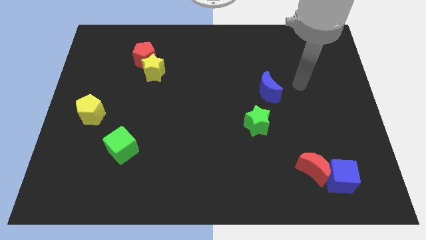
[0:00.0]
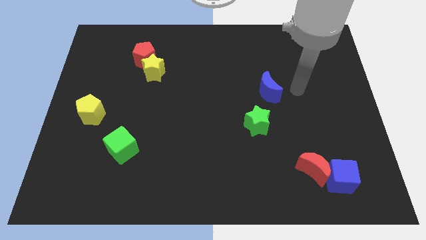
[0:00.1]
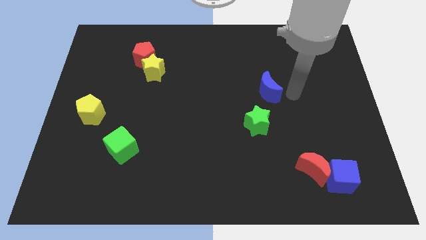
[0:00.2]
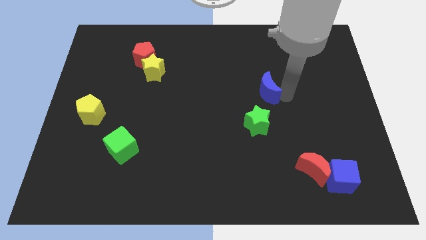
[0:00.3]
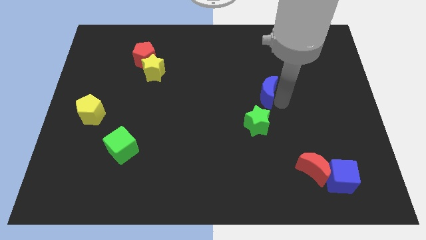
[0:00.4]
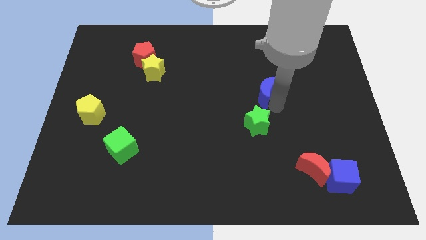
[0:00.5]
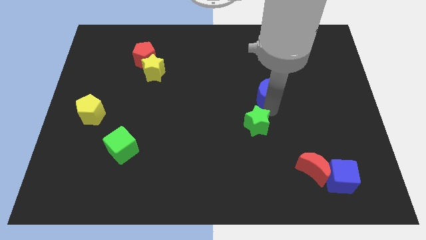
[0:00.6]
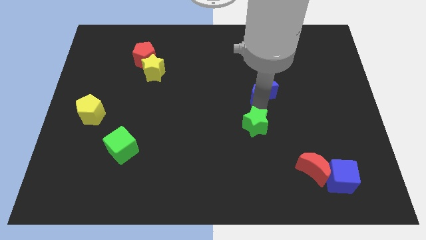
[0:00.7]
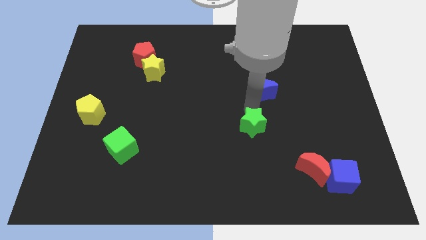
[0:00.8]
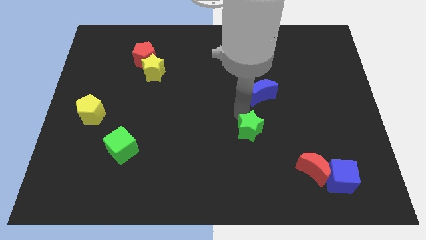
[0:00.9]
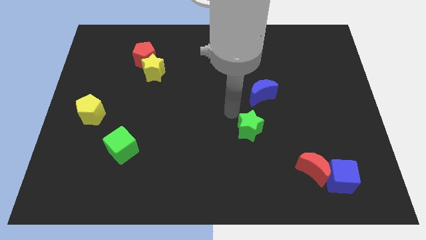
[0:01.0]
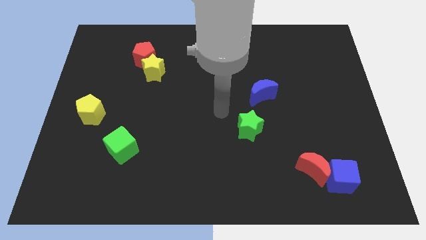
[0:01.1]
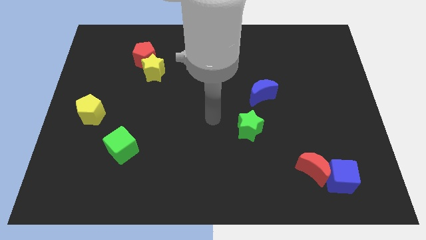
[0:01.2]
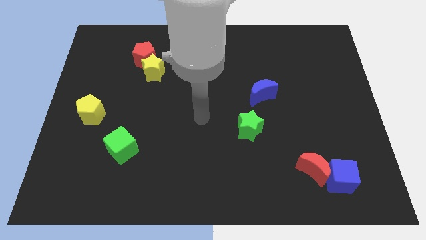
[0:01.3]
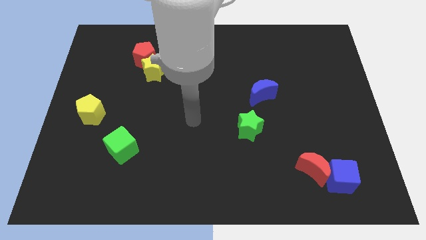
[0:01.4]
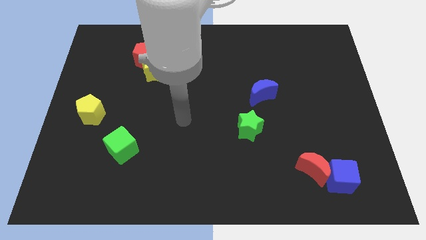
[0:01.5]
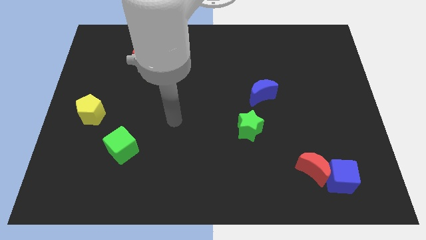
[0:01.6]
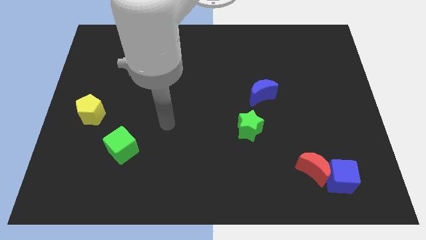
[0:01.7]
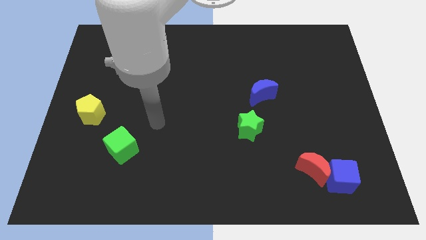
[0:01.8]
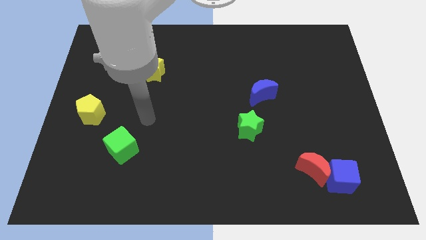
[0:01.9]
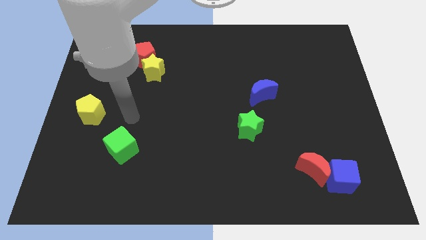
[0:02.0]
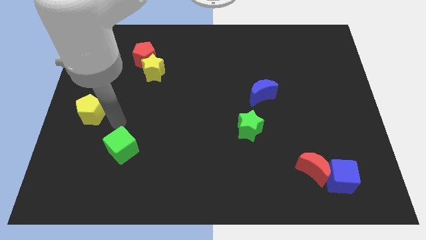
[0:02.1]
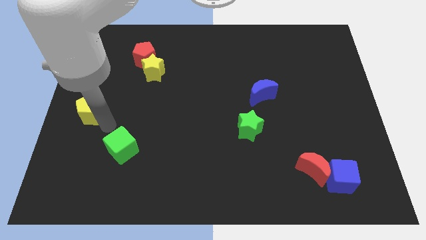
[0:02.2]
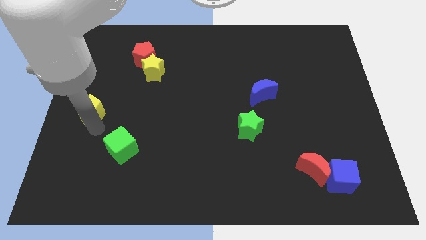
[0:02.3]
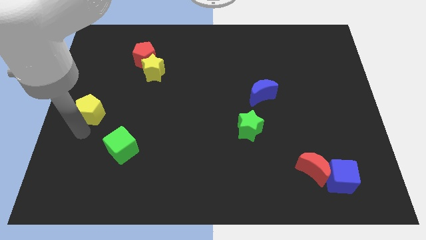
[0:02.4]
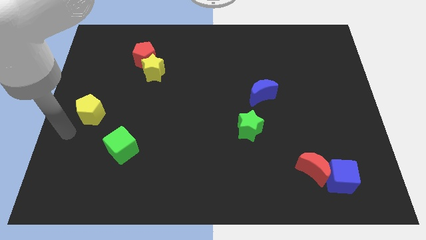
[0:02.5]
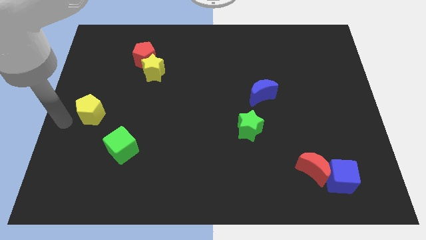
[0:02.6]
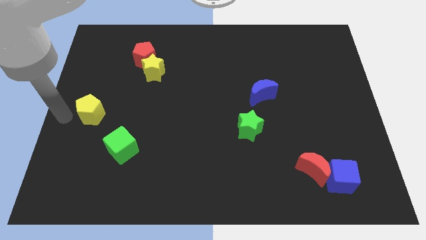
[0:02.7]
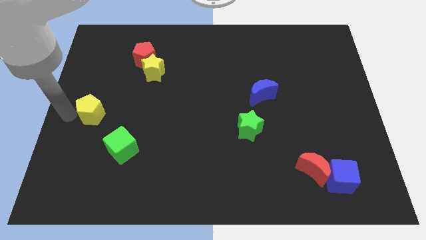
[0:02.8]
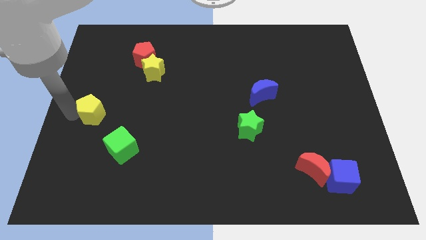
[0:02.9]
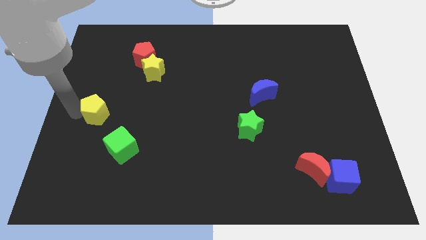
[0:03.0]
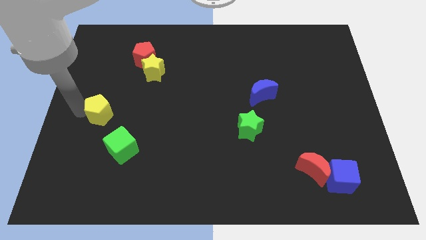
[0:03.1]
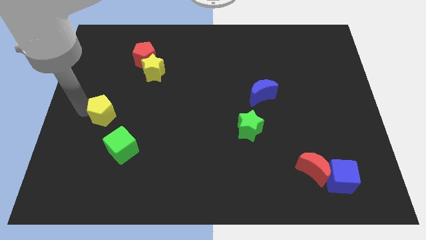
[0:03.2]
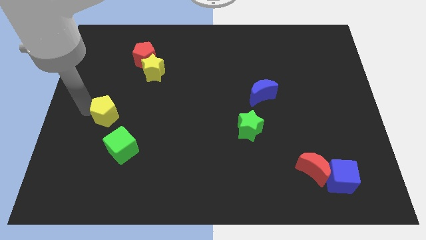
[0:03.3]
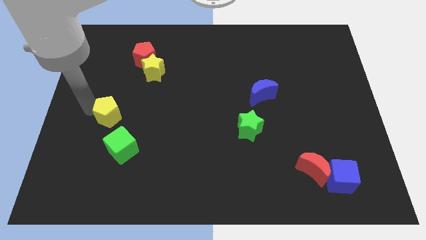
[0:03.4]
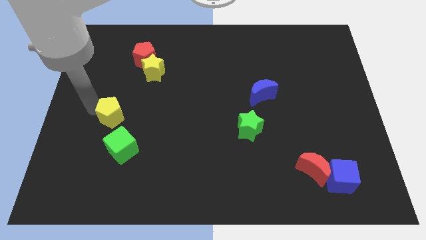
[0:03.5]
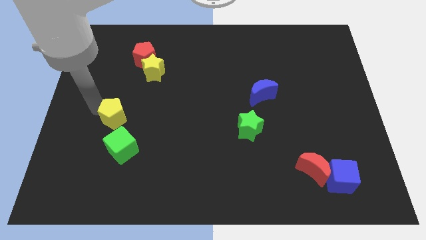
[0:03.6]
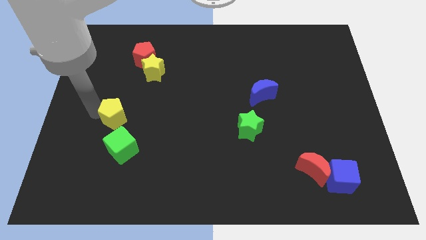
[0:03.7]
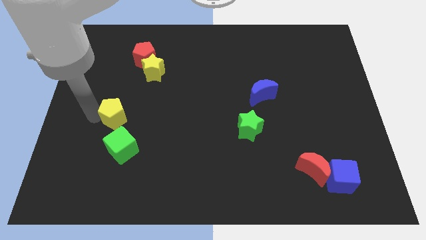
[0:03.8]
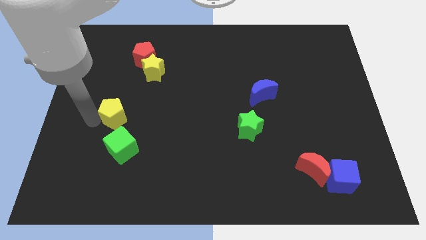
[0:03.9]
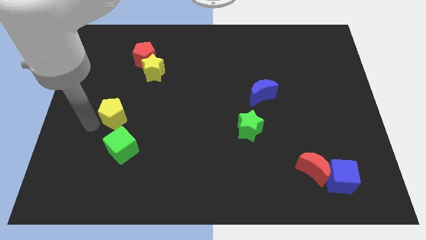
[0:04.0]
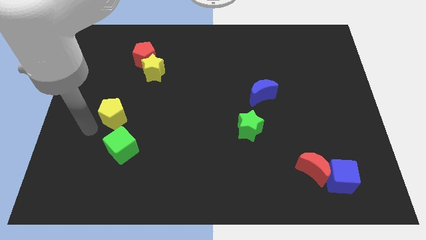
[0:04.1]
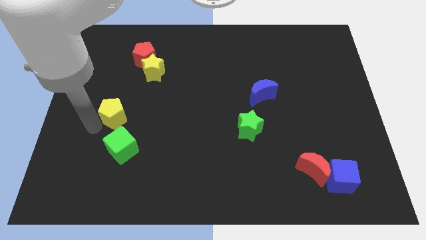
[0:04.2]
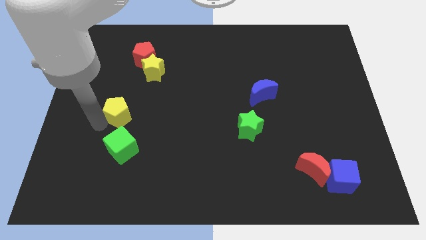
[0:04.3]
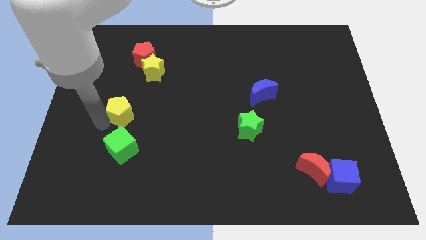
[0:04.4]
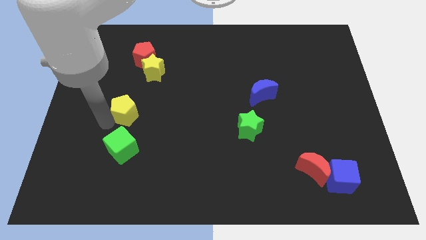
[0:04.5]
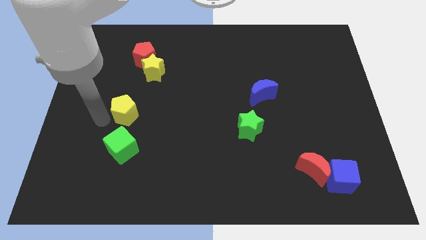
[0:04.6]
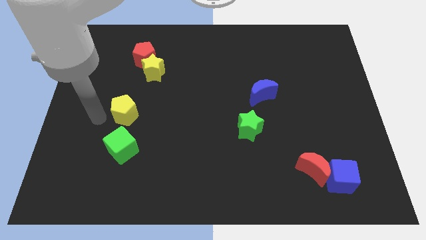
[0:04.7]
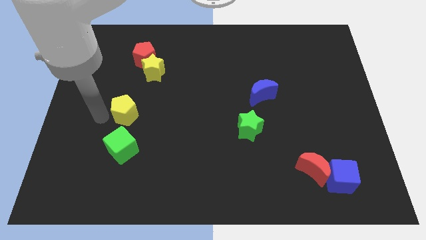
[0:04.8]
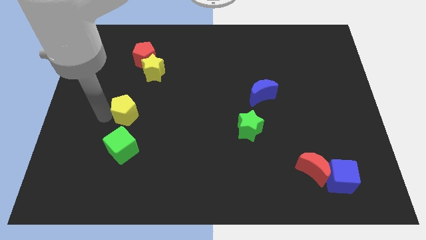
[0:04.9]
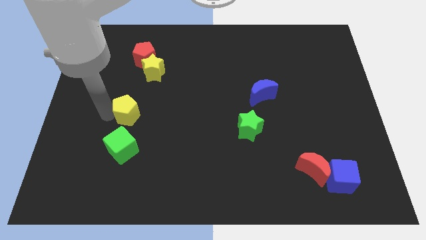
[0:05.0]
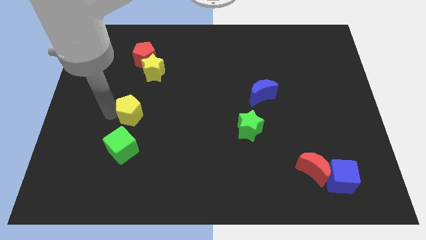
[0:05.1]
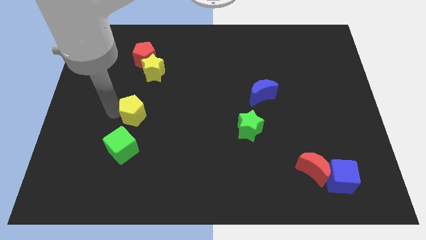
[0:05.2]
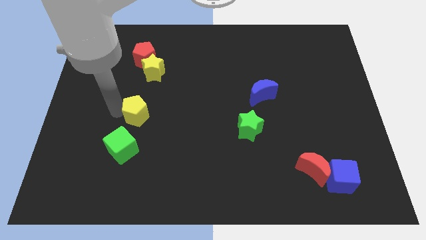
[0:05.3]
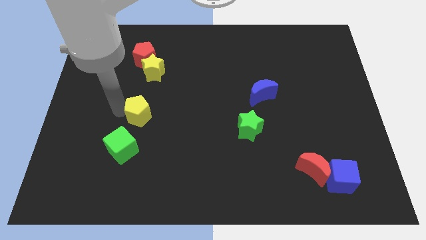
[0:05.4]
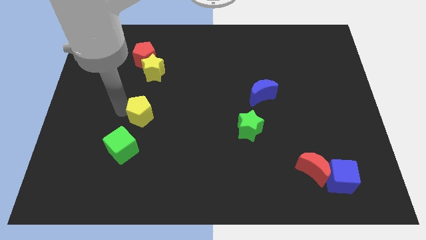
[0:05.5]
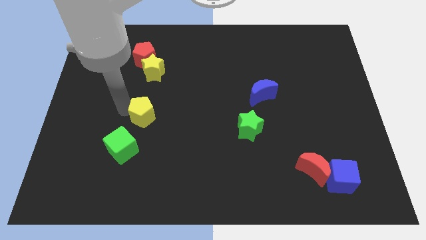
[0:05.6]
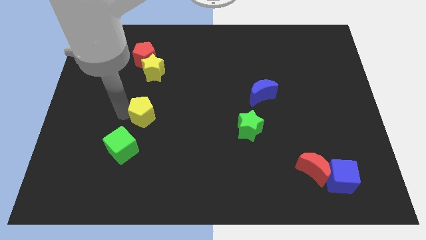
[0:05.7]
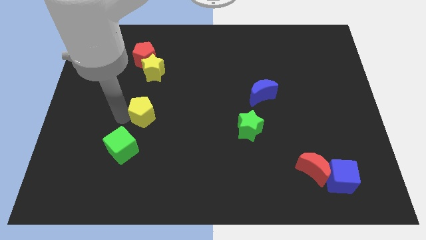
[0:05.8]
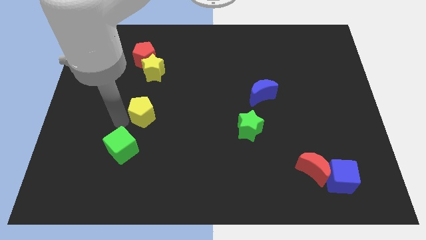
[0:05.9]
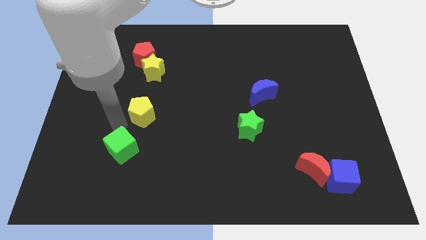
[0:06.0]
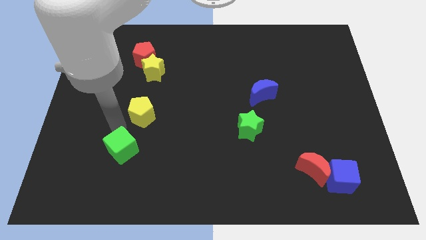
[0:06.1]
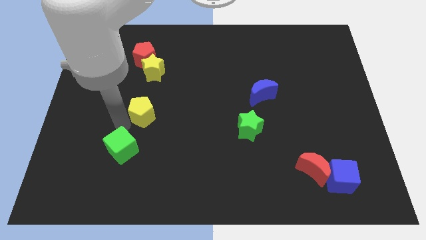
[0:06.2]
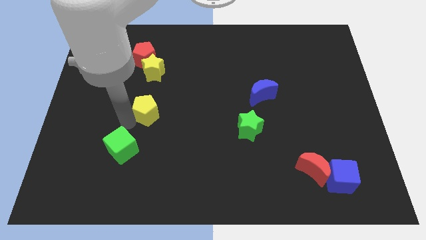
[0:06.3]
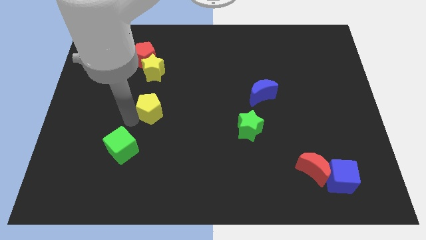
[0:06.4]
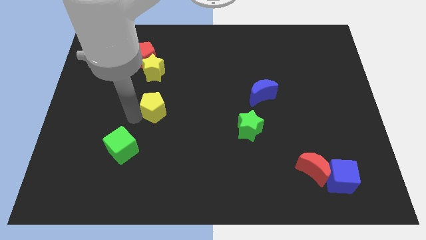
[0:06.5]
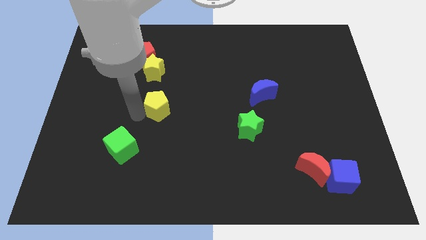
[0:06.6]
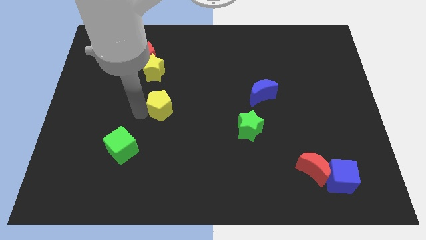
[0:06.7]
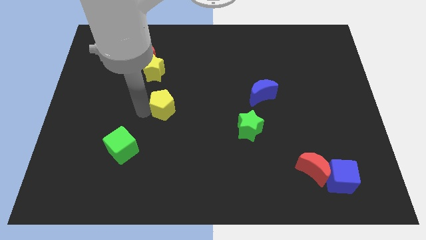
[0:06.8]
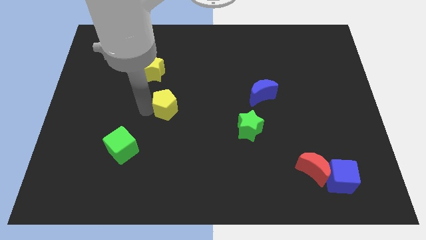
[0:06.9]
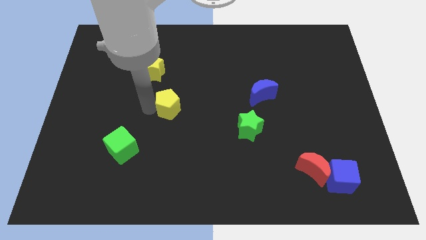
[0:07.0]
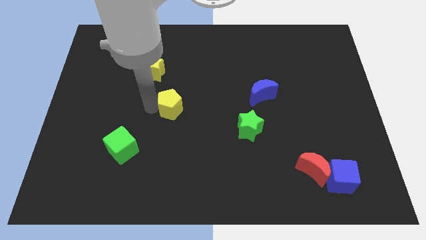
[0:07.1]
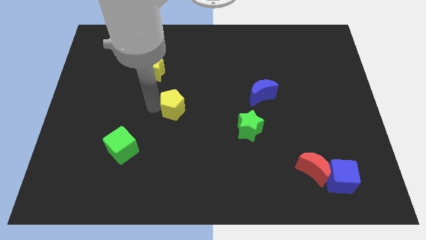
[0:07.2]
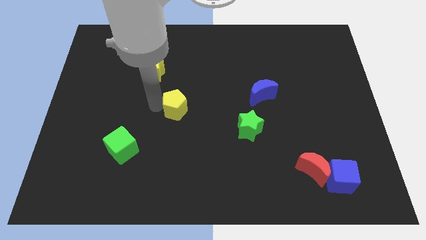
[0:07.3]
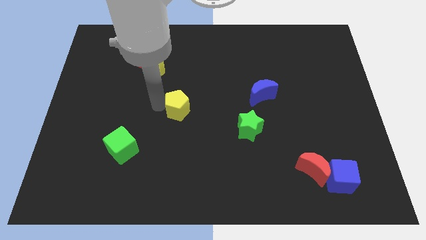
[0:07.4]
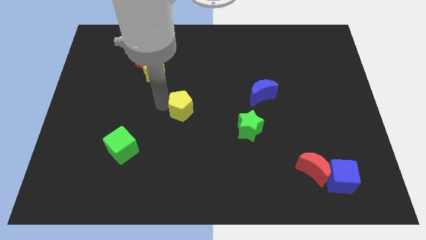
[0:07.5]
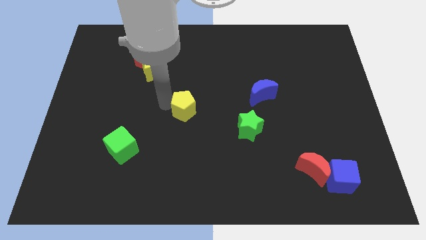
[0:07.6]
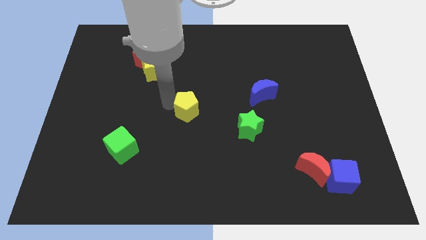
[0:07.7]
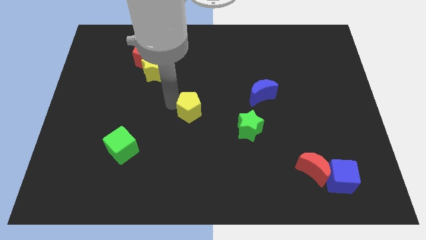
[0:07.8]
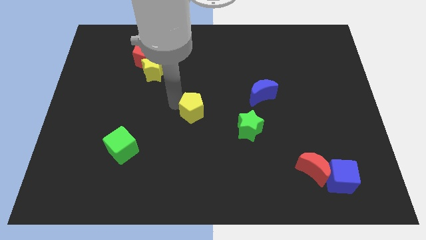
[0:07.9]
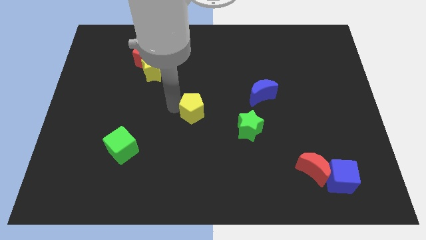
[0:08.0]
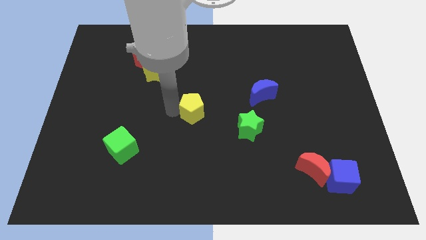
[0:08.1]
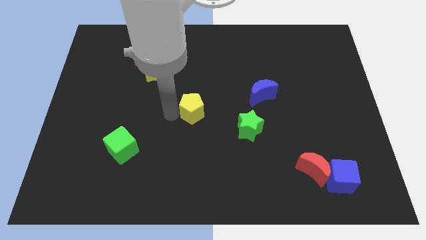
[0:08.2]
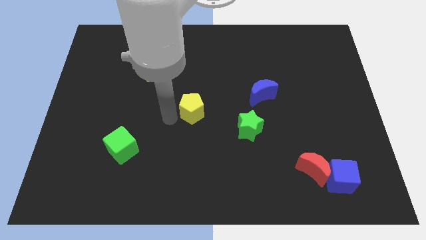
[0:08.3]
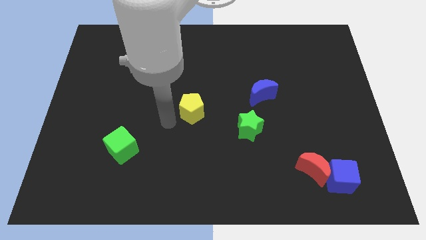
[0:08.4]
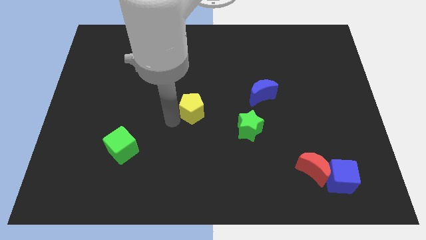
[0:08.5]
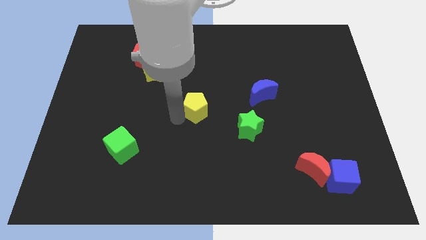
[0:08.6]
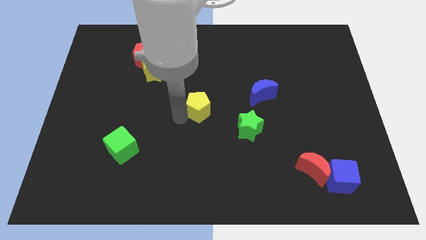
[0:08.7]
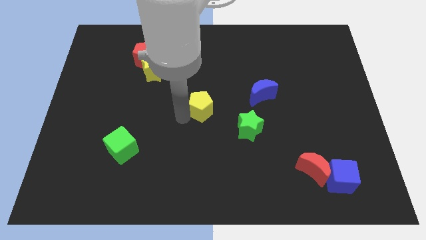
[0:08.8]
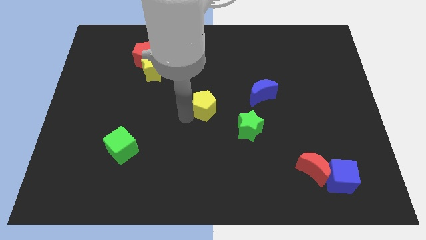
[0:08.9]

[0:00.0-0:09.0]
put the yellow pentagon to the top left side of the green star
